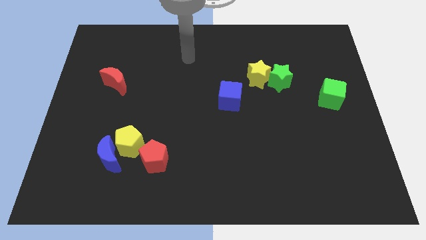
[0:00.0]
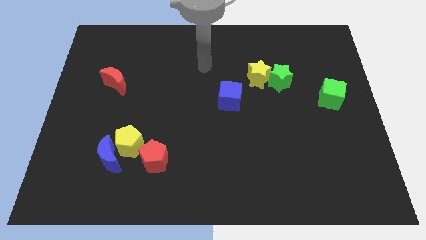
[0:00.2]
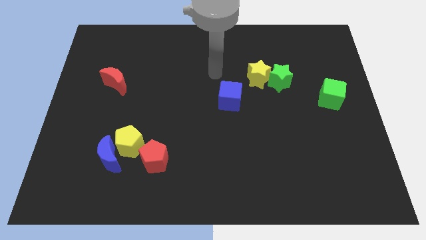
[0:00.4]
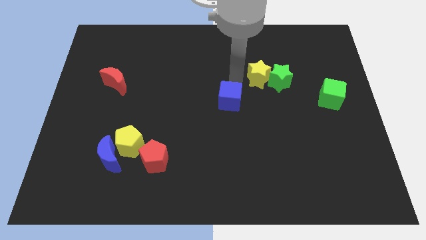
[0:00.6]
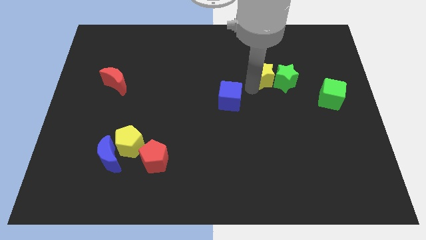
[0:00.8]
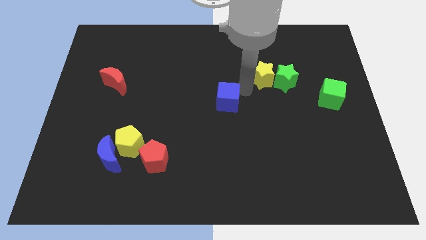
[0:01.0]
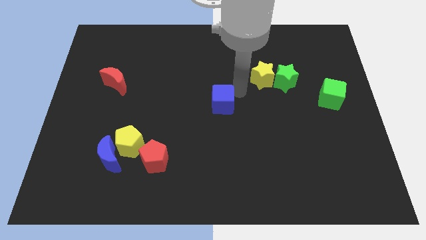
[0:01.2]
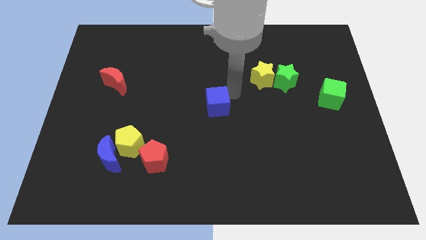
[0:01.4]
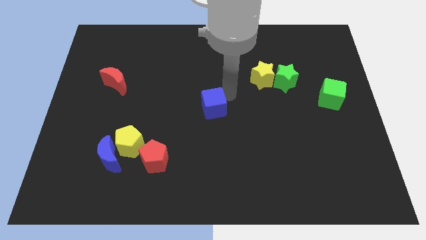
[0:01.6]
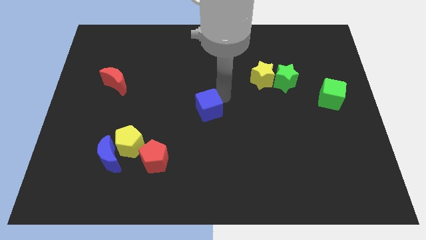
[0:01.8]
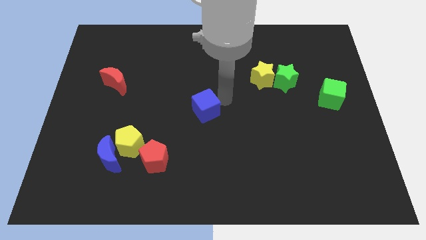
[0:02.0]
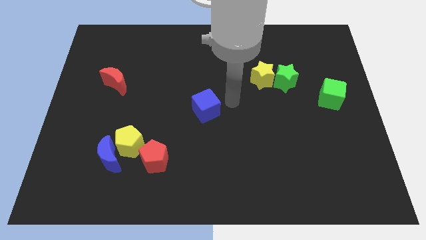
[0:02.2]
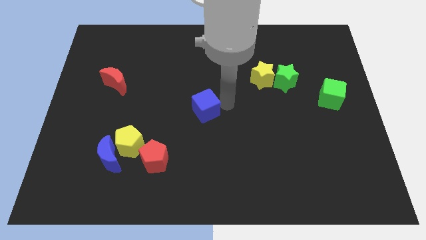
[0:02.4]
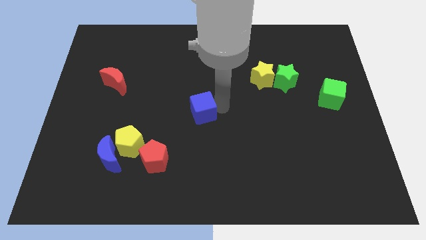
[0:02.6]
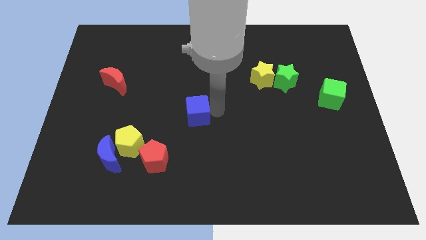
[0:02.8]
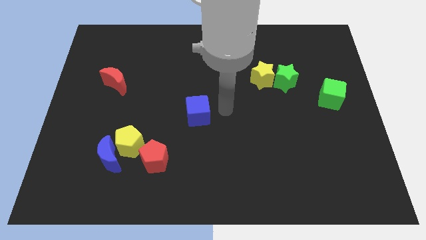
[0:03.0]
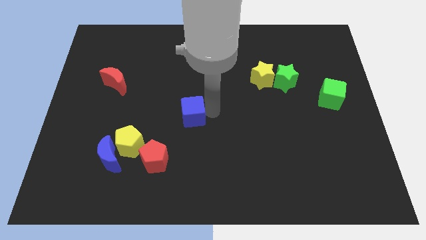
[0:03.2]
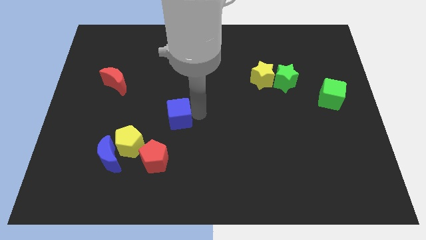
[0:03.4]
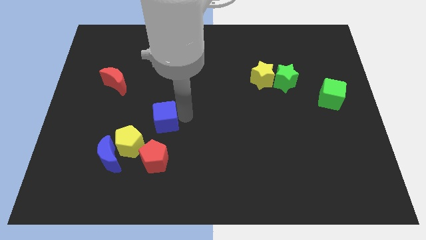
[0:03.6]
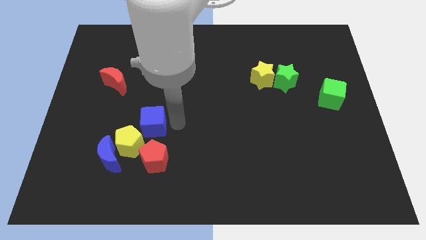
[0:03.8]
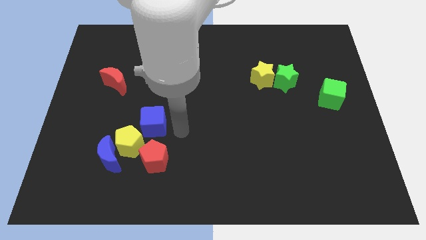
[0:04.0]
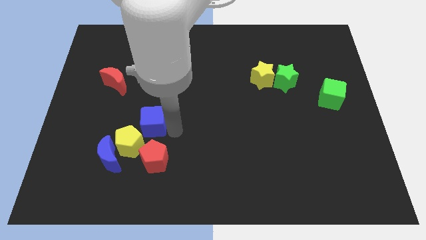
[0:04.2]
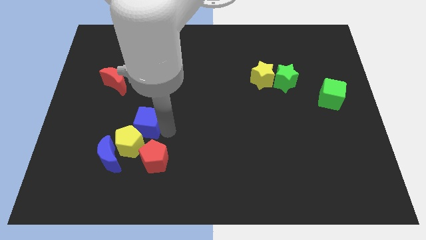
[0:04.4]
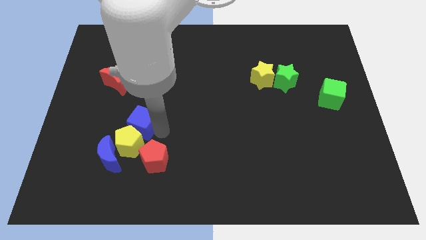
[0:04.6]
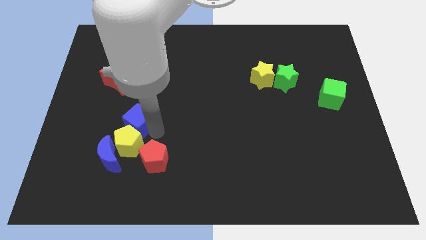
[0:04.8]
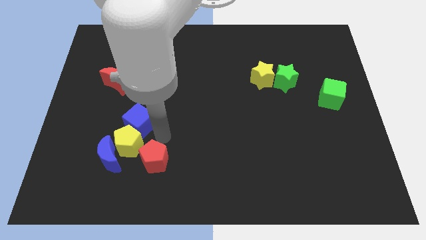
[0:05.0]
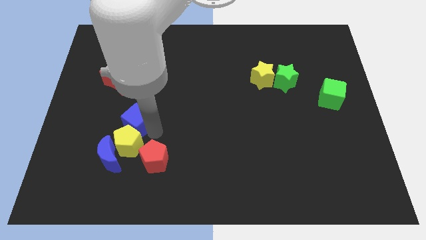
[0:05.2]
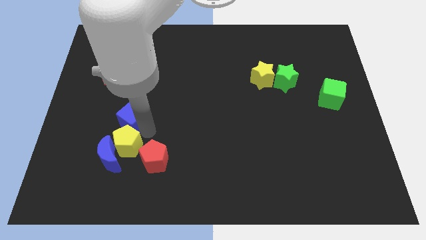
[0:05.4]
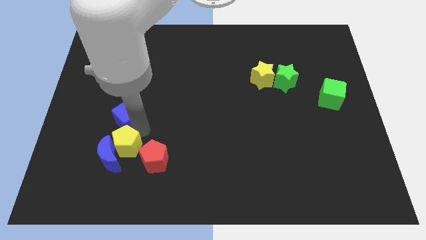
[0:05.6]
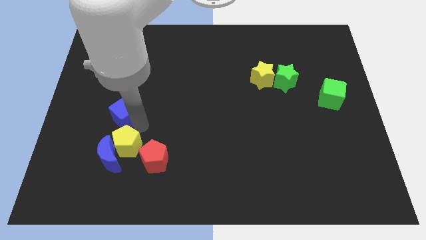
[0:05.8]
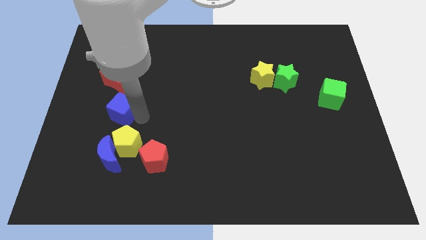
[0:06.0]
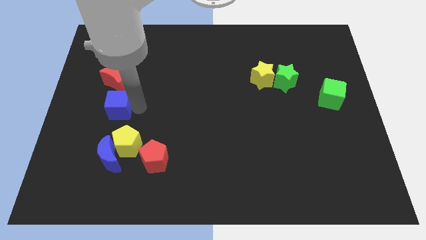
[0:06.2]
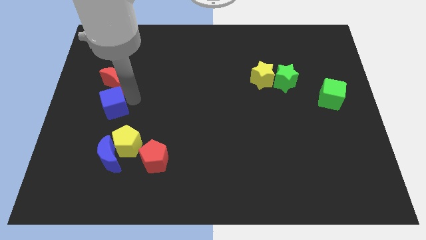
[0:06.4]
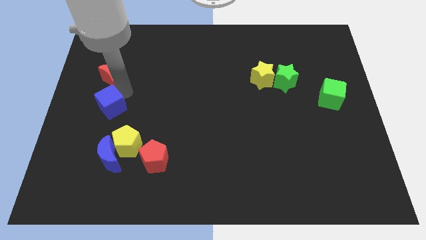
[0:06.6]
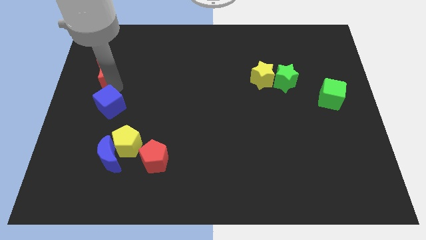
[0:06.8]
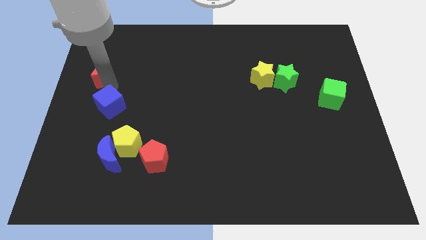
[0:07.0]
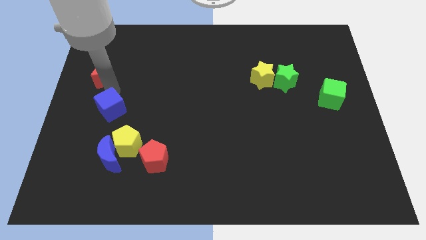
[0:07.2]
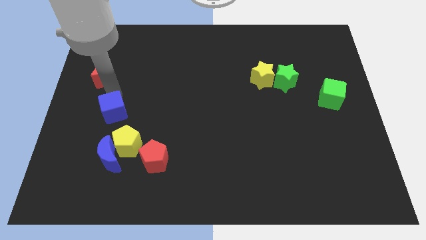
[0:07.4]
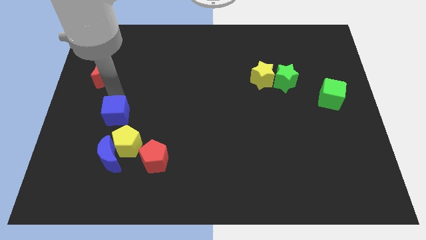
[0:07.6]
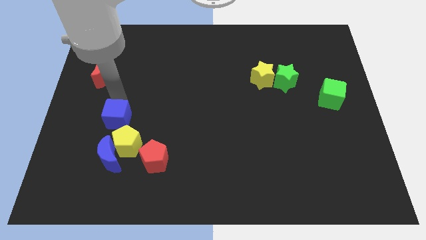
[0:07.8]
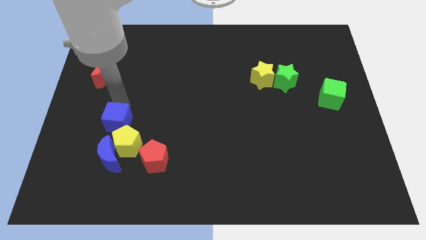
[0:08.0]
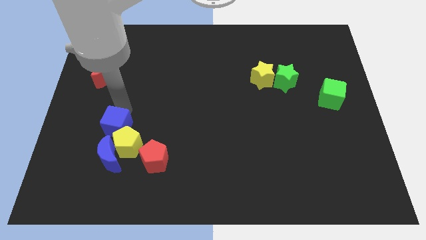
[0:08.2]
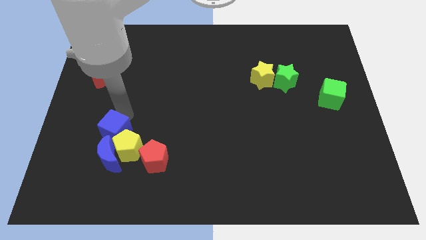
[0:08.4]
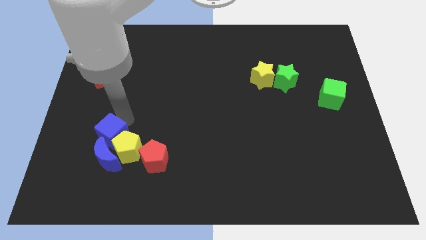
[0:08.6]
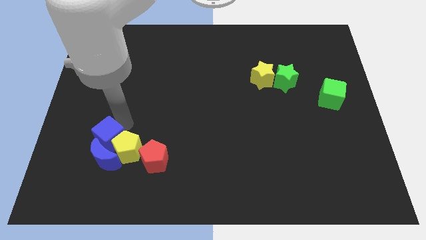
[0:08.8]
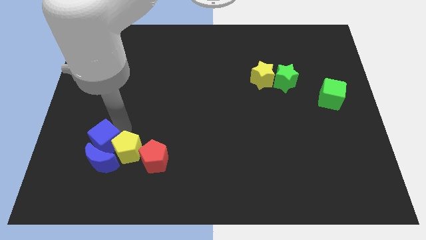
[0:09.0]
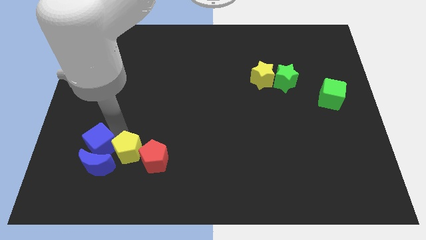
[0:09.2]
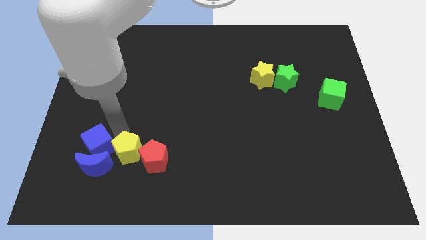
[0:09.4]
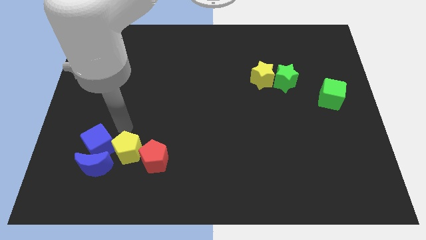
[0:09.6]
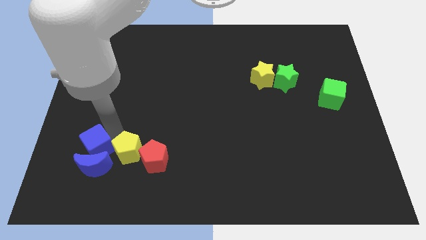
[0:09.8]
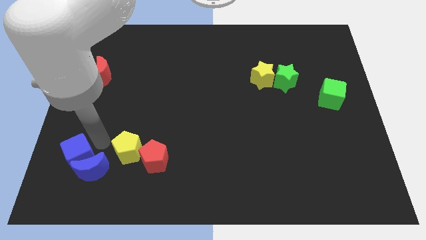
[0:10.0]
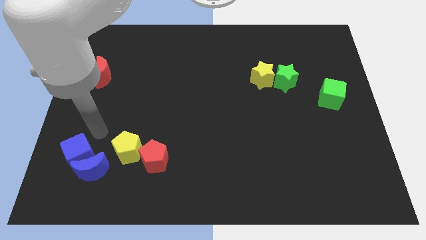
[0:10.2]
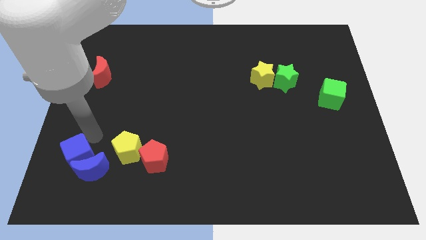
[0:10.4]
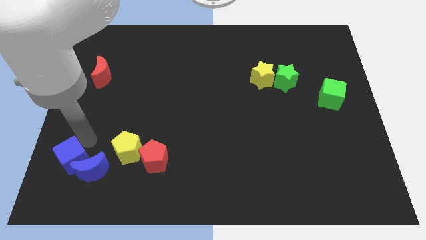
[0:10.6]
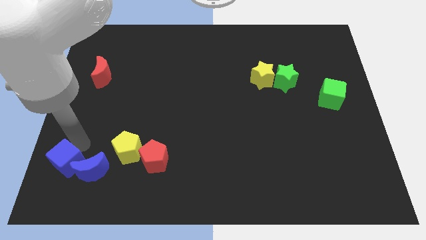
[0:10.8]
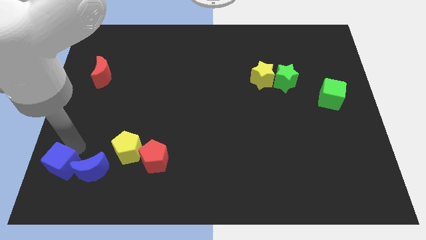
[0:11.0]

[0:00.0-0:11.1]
move the blue cube to the lower left corner

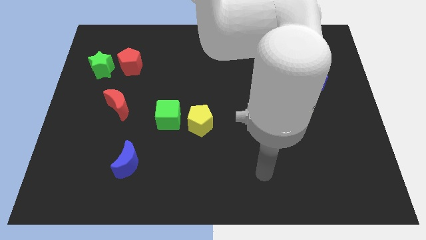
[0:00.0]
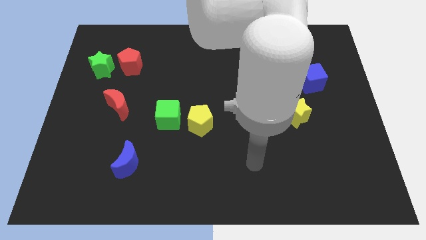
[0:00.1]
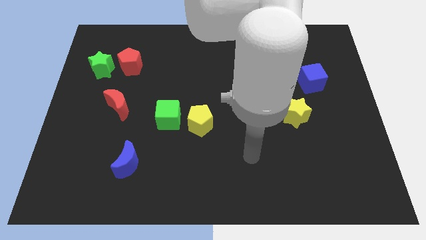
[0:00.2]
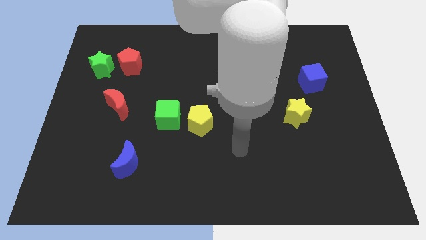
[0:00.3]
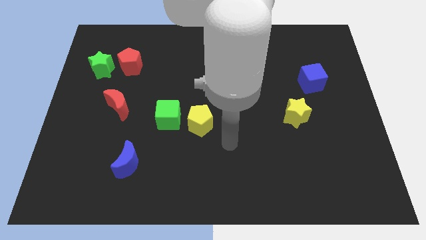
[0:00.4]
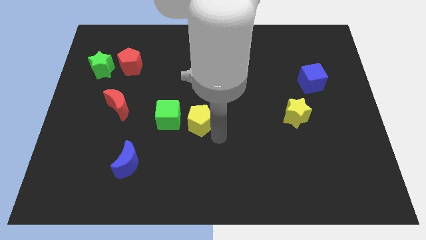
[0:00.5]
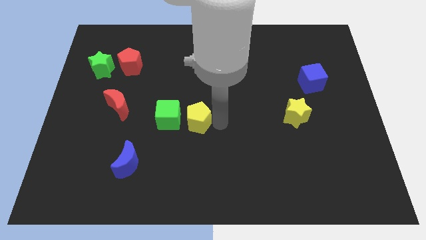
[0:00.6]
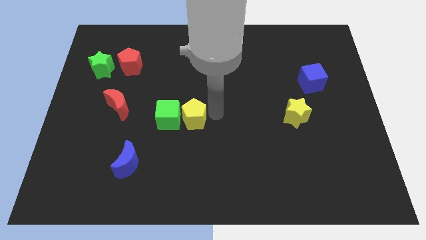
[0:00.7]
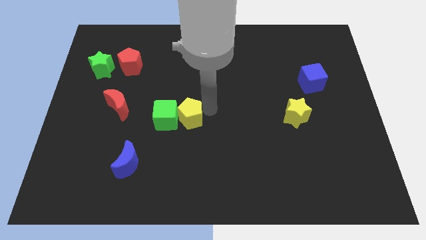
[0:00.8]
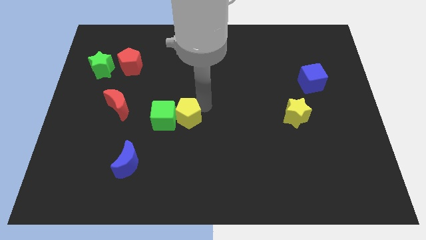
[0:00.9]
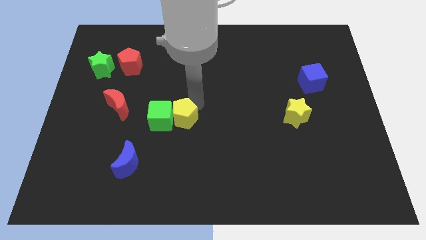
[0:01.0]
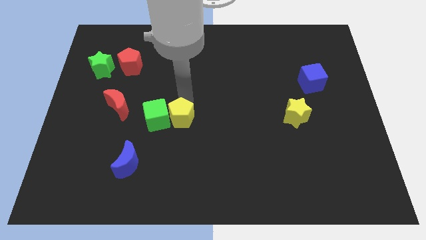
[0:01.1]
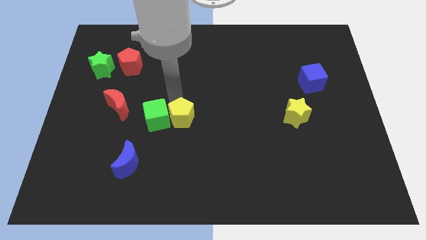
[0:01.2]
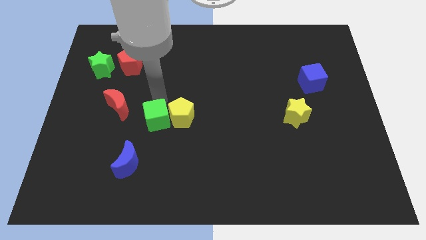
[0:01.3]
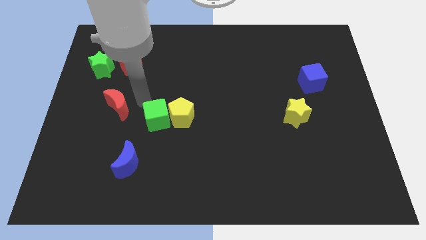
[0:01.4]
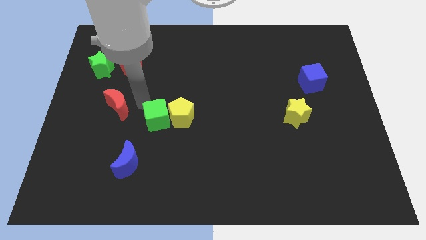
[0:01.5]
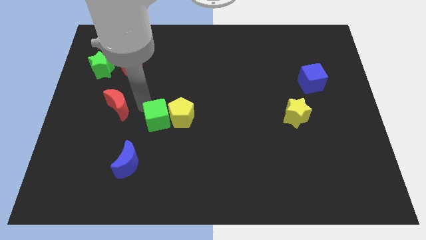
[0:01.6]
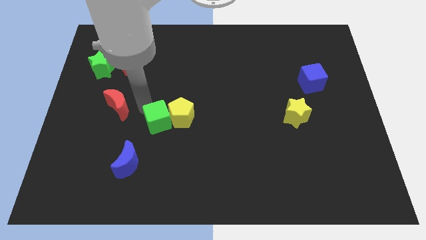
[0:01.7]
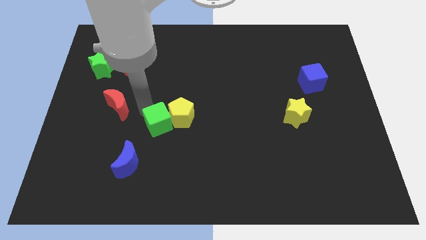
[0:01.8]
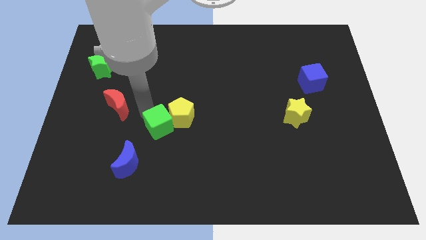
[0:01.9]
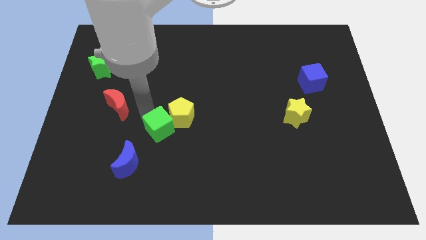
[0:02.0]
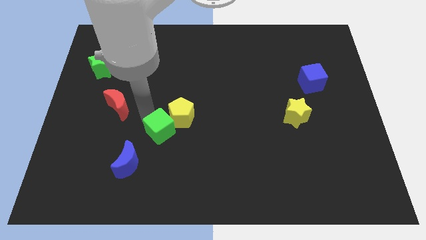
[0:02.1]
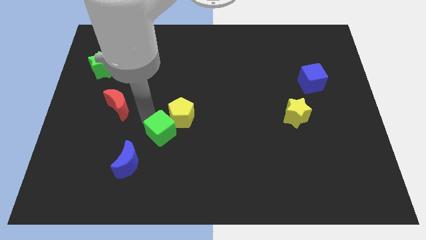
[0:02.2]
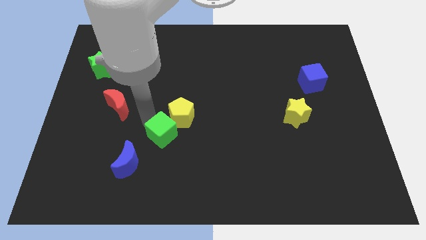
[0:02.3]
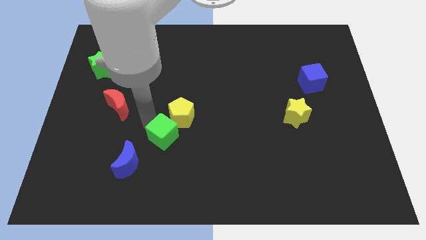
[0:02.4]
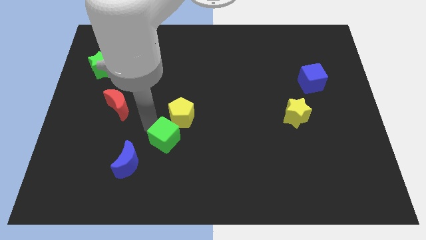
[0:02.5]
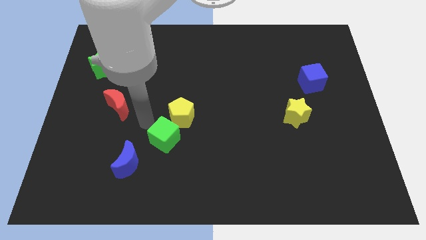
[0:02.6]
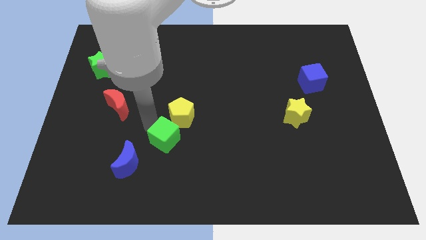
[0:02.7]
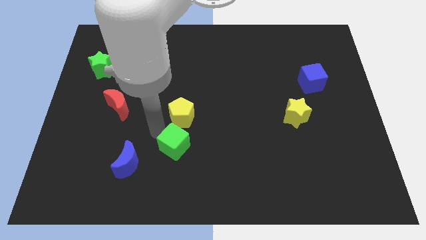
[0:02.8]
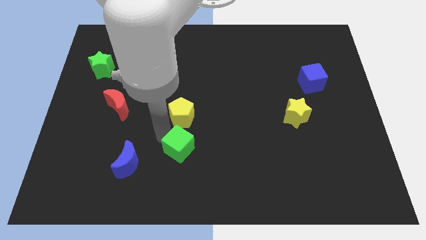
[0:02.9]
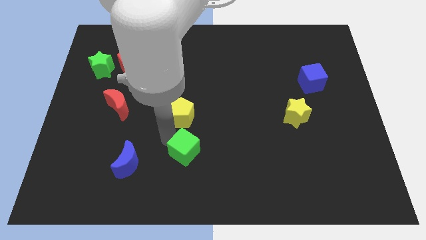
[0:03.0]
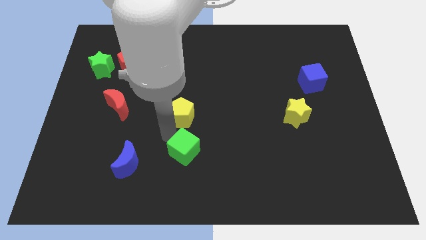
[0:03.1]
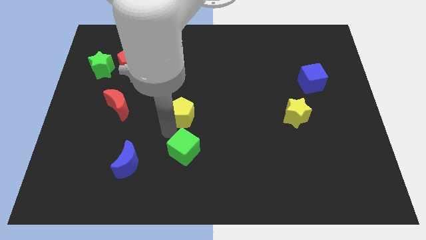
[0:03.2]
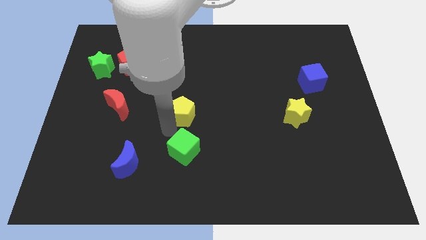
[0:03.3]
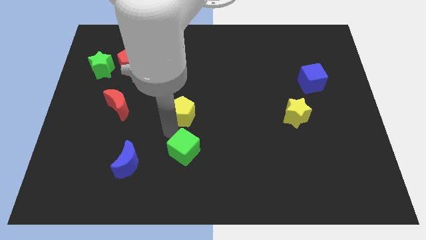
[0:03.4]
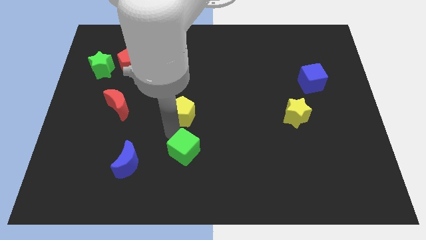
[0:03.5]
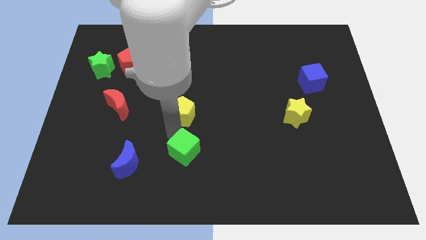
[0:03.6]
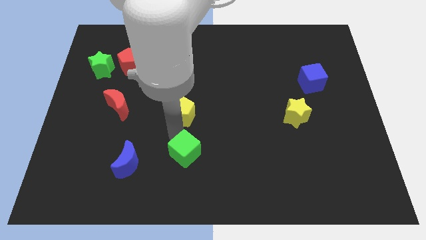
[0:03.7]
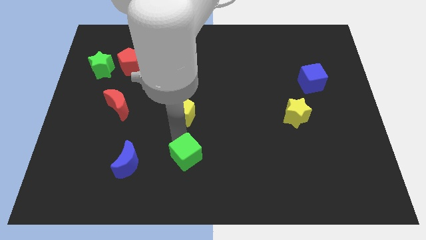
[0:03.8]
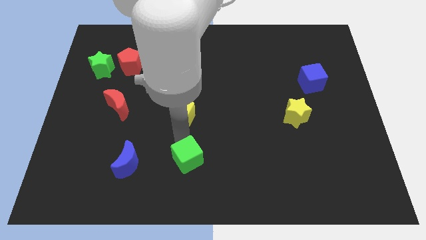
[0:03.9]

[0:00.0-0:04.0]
put the green cube to the bottom side
